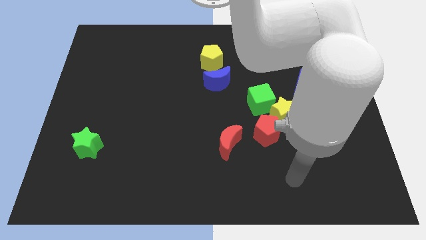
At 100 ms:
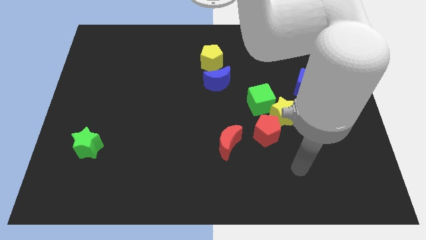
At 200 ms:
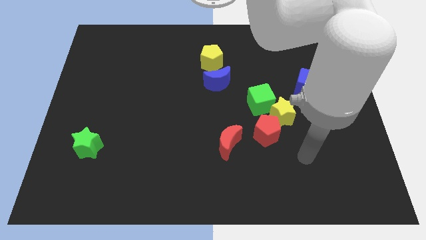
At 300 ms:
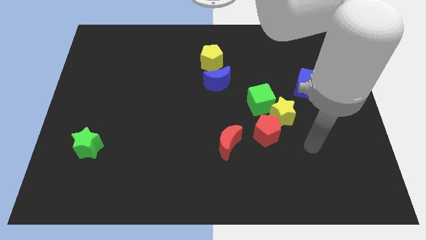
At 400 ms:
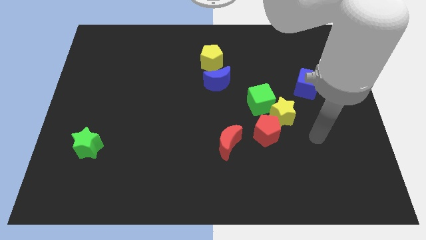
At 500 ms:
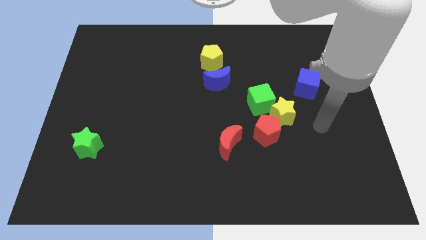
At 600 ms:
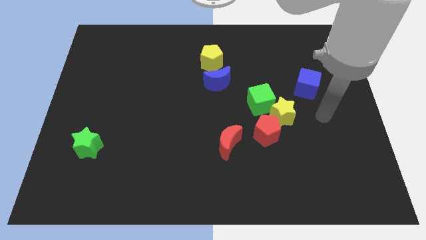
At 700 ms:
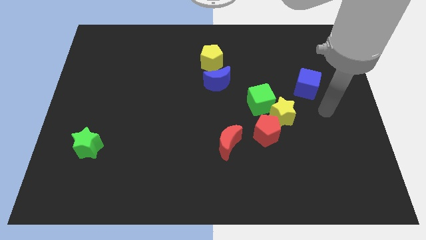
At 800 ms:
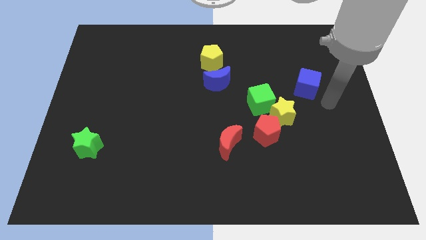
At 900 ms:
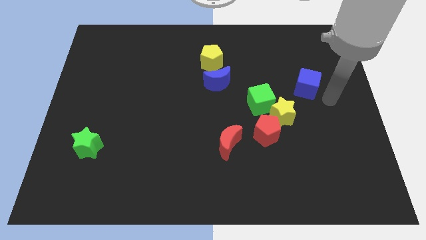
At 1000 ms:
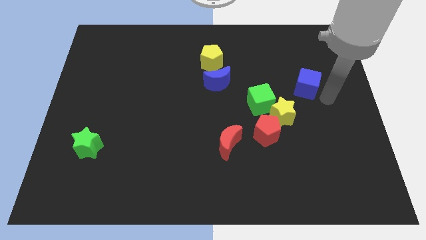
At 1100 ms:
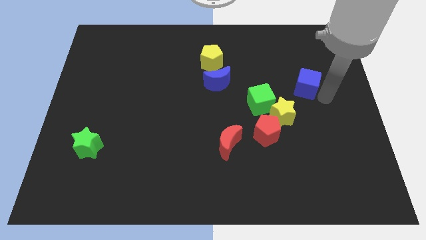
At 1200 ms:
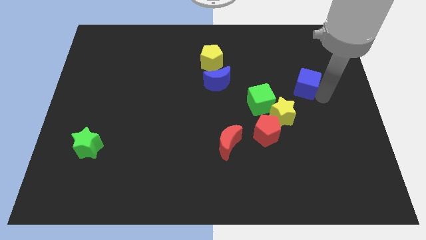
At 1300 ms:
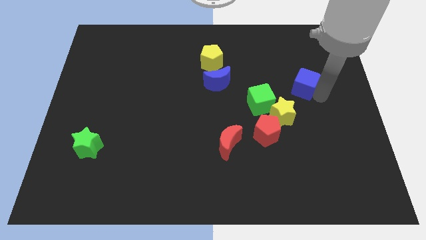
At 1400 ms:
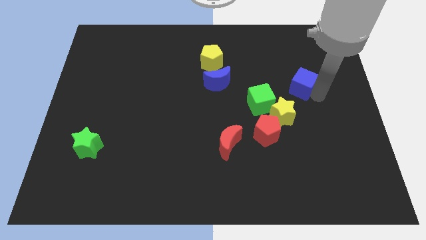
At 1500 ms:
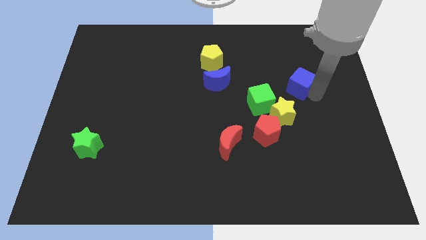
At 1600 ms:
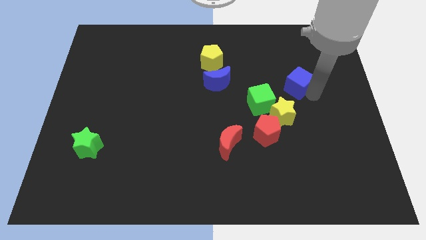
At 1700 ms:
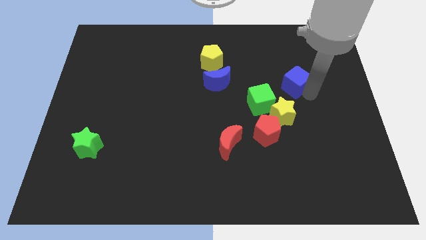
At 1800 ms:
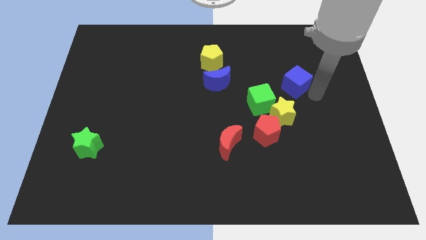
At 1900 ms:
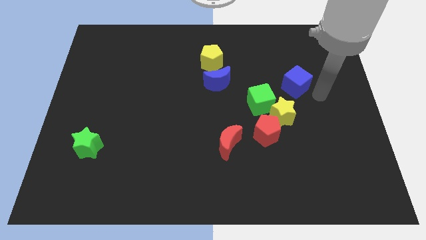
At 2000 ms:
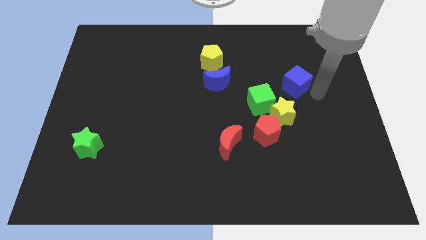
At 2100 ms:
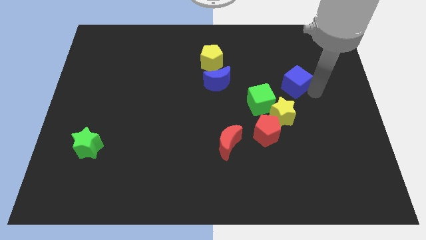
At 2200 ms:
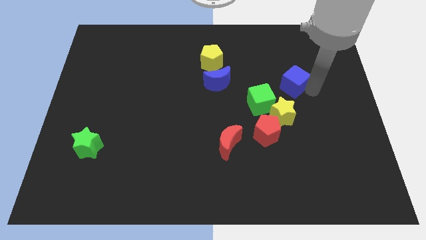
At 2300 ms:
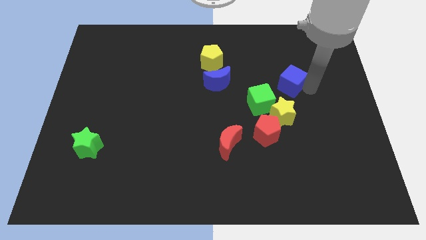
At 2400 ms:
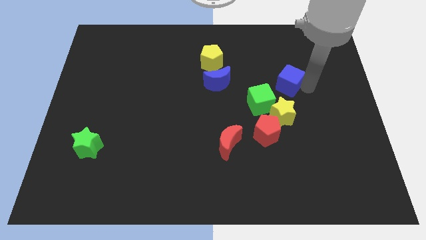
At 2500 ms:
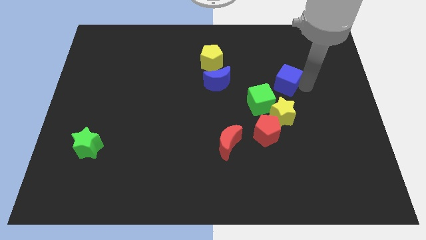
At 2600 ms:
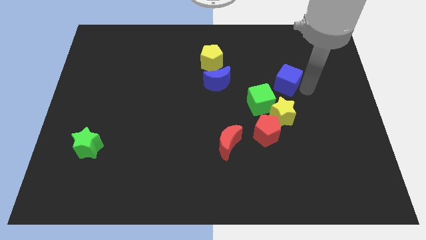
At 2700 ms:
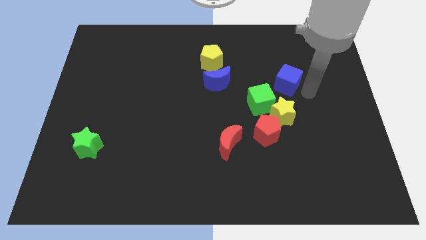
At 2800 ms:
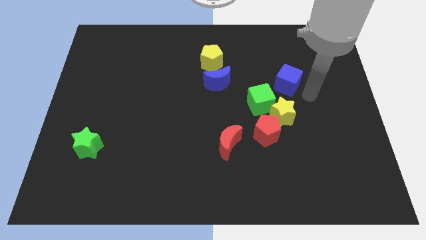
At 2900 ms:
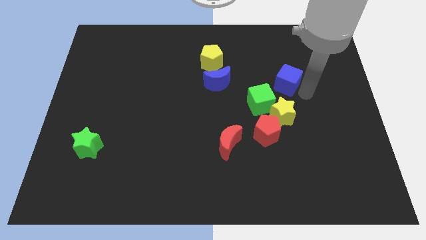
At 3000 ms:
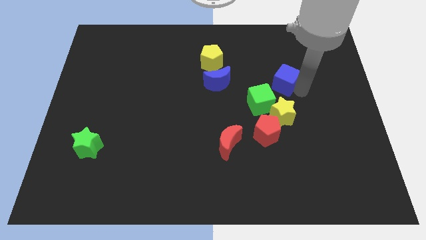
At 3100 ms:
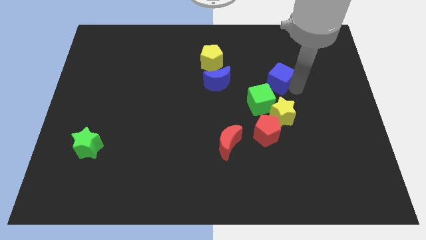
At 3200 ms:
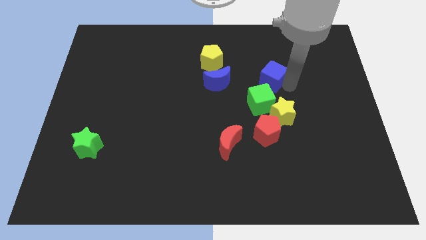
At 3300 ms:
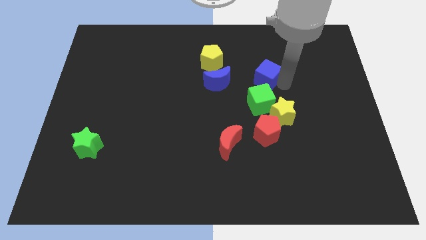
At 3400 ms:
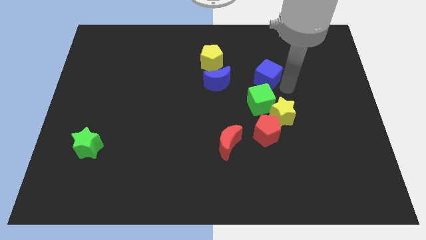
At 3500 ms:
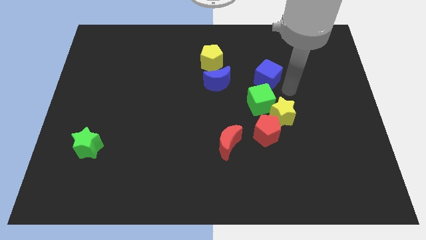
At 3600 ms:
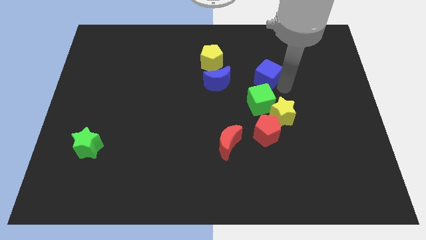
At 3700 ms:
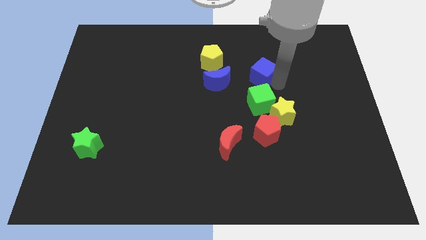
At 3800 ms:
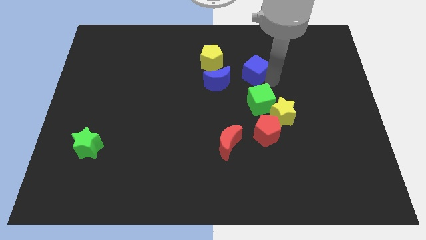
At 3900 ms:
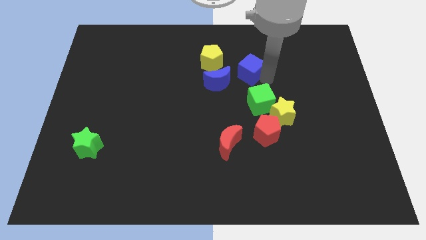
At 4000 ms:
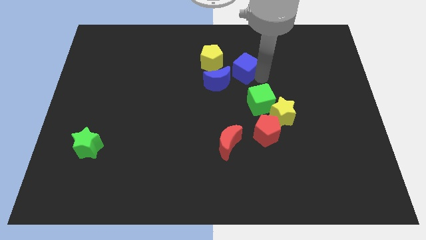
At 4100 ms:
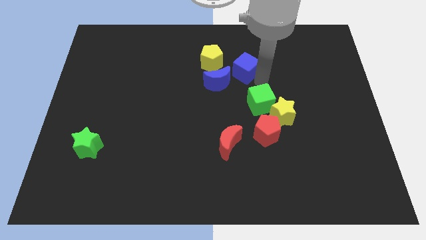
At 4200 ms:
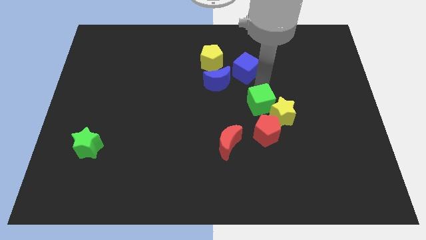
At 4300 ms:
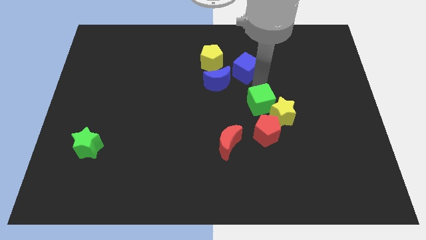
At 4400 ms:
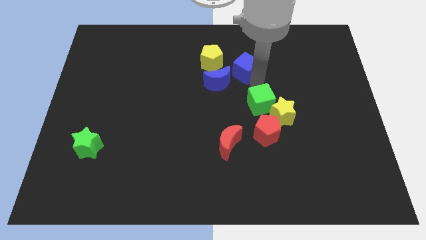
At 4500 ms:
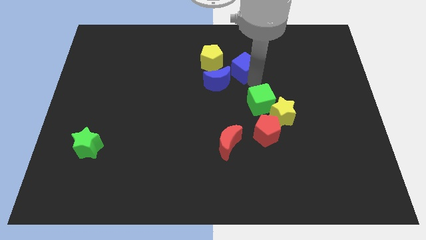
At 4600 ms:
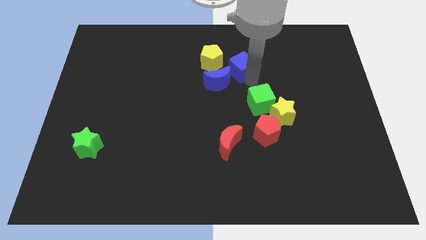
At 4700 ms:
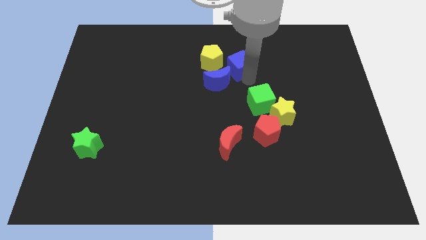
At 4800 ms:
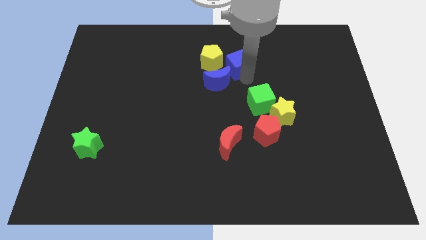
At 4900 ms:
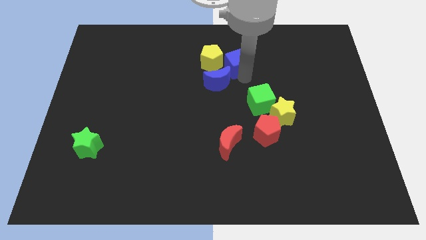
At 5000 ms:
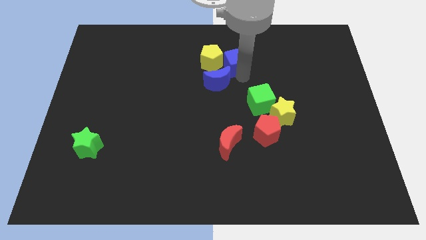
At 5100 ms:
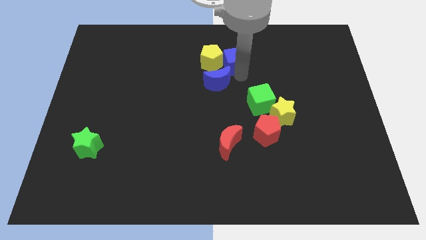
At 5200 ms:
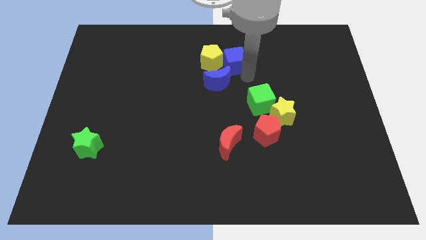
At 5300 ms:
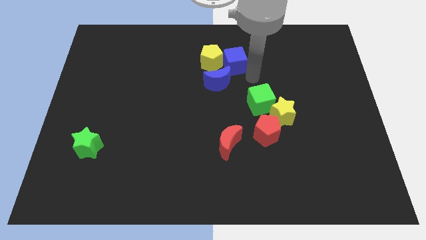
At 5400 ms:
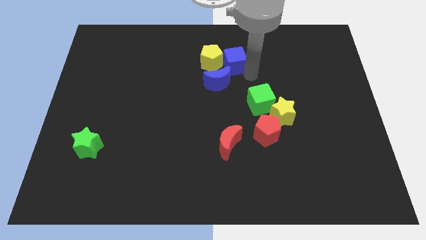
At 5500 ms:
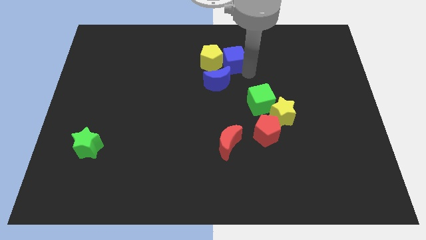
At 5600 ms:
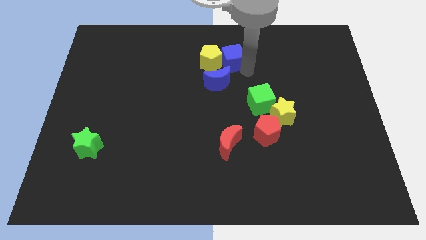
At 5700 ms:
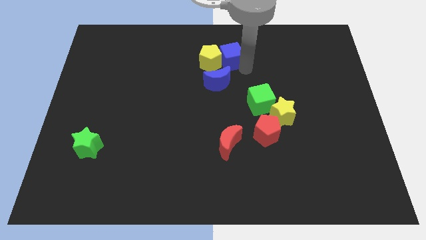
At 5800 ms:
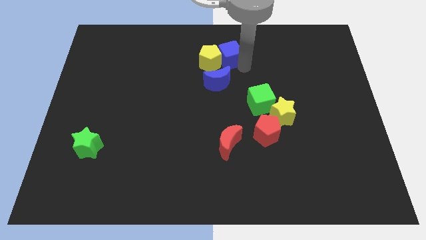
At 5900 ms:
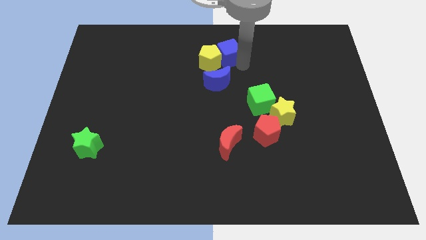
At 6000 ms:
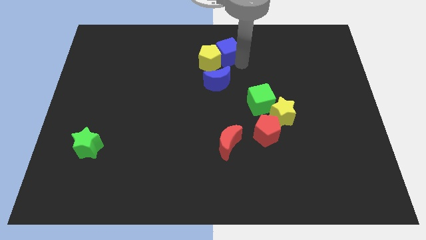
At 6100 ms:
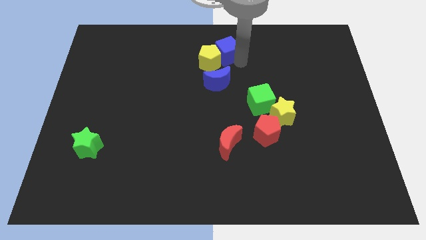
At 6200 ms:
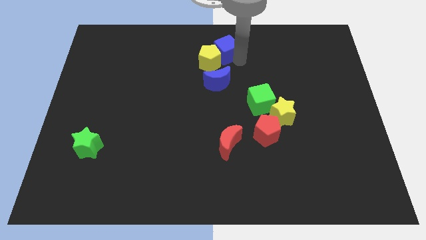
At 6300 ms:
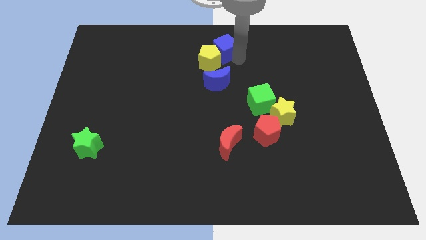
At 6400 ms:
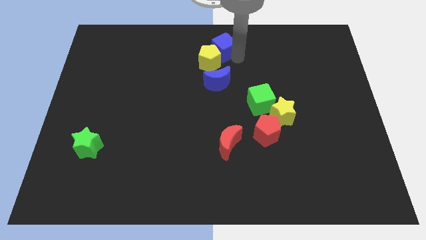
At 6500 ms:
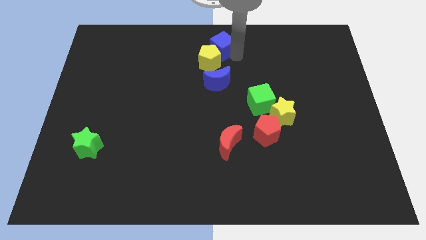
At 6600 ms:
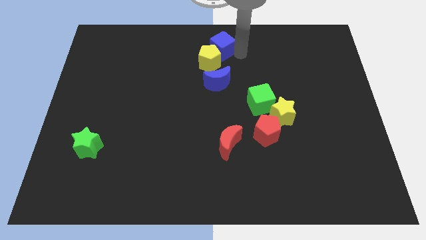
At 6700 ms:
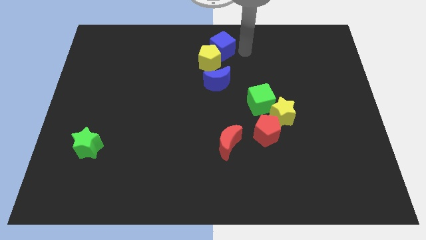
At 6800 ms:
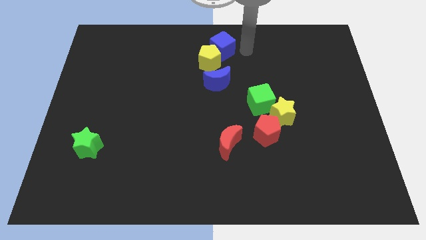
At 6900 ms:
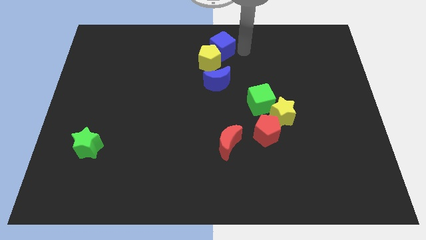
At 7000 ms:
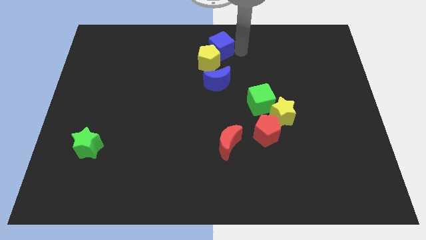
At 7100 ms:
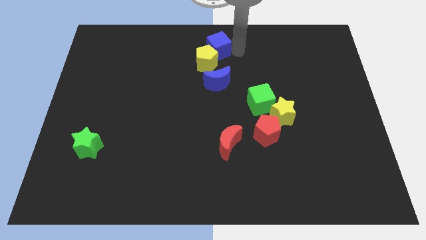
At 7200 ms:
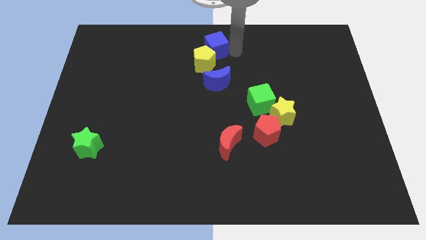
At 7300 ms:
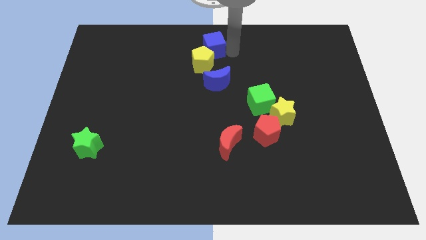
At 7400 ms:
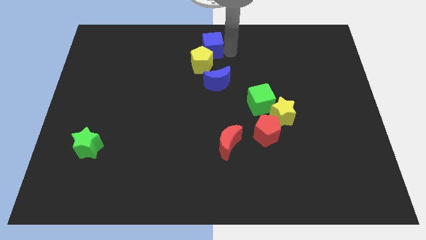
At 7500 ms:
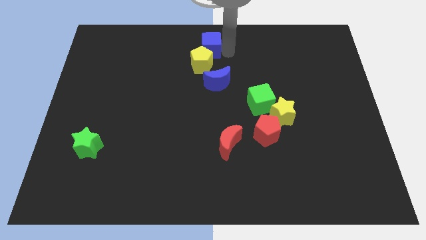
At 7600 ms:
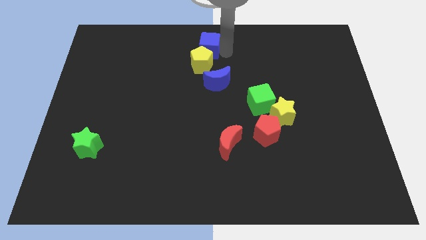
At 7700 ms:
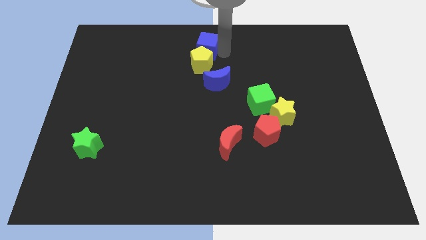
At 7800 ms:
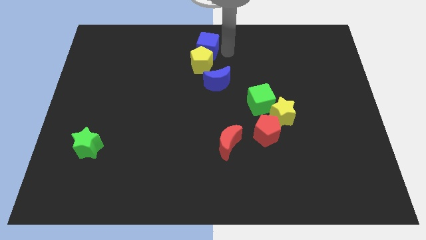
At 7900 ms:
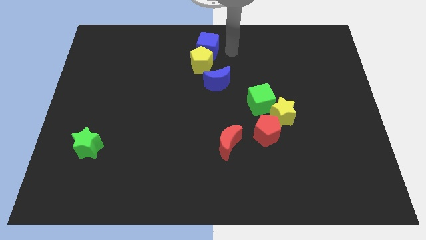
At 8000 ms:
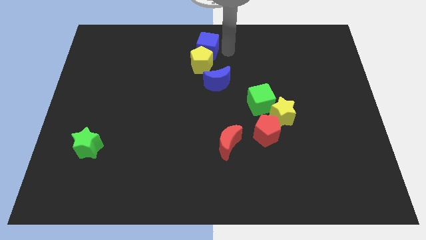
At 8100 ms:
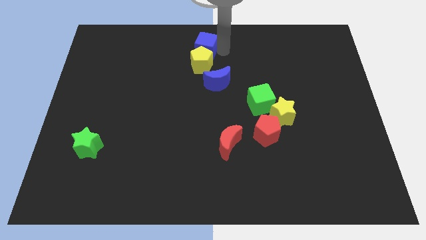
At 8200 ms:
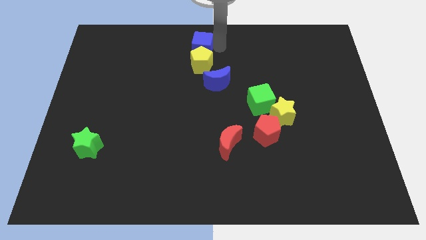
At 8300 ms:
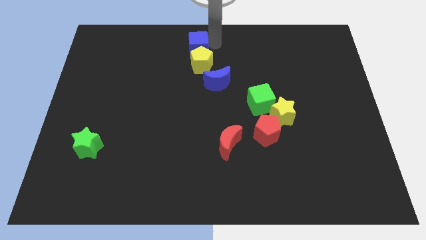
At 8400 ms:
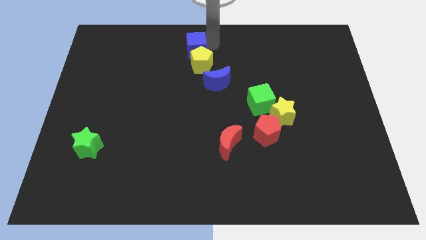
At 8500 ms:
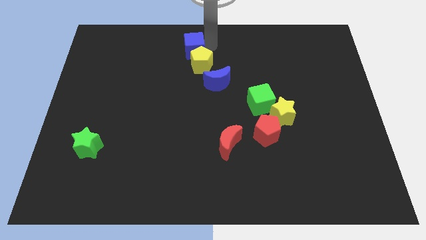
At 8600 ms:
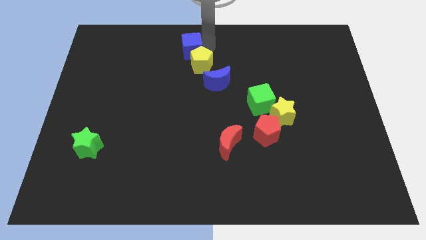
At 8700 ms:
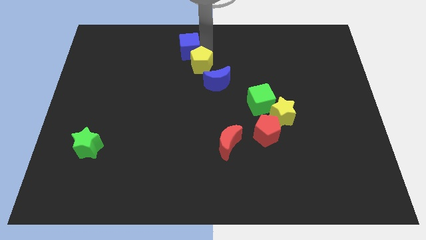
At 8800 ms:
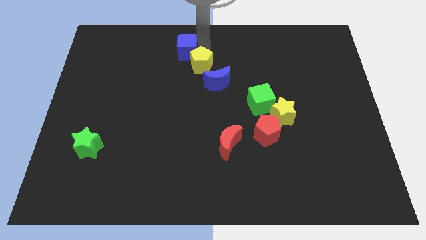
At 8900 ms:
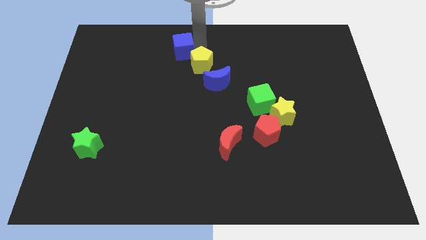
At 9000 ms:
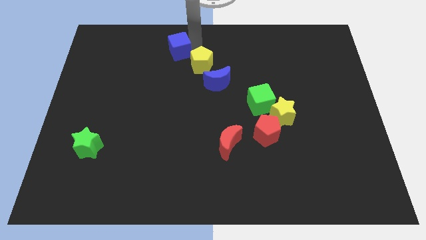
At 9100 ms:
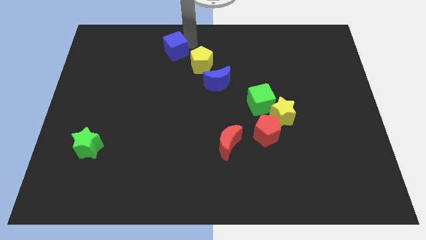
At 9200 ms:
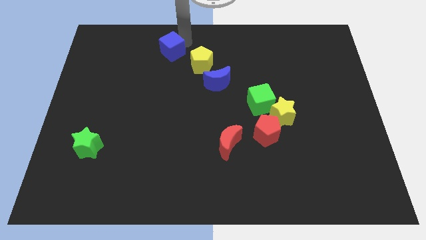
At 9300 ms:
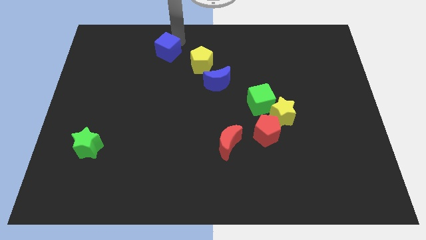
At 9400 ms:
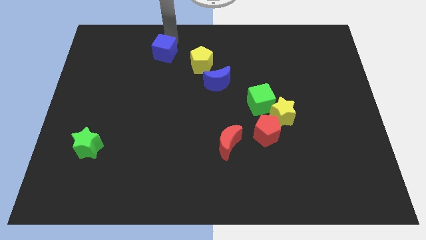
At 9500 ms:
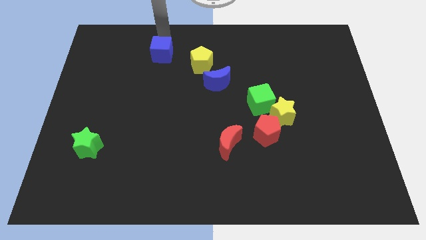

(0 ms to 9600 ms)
slide the blue cube left
